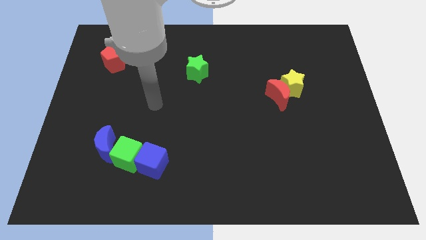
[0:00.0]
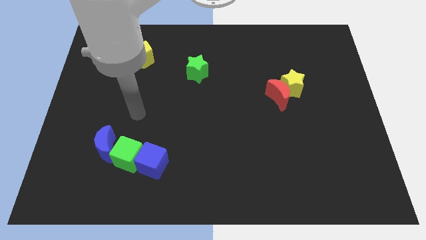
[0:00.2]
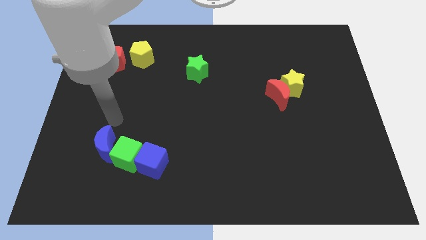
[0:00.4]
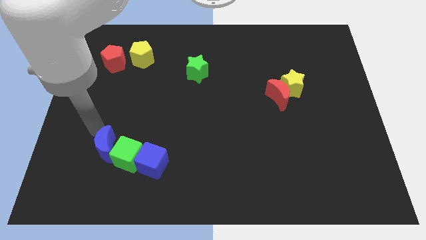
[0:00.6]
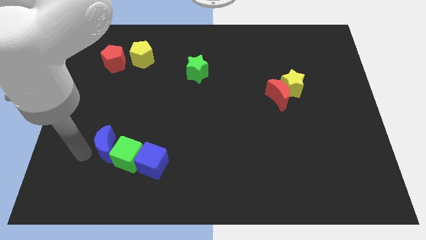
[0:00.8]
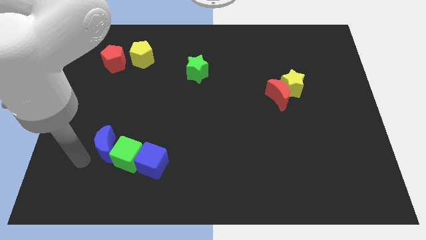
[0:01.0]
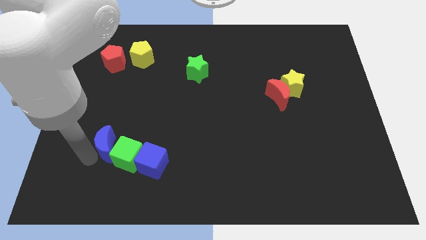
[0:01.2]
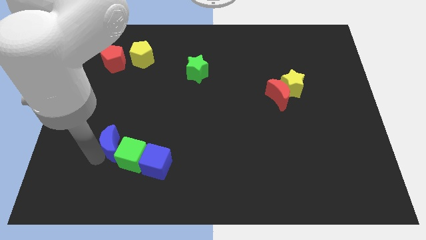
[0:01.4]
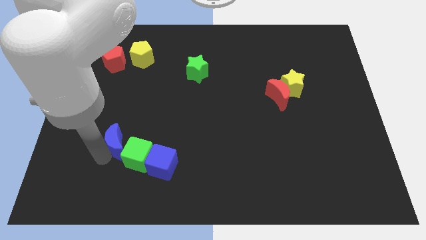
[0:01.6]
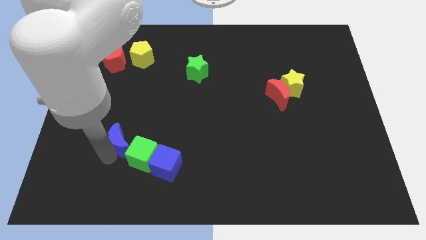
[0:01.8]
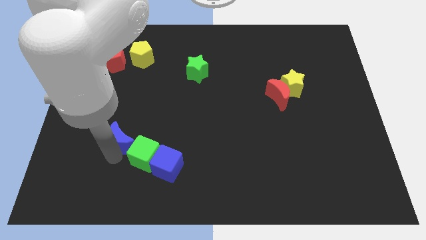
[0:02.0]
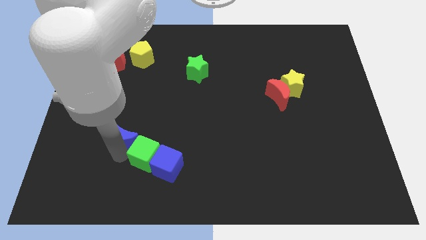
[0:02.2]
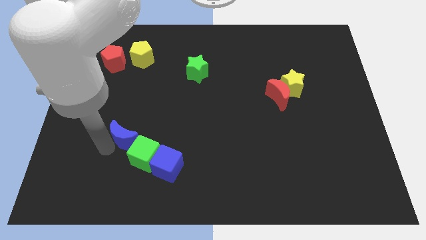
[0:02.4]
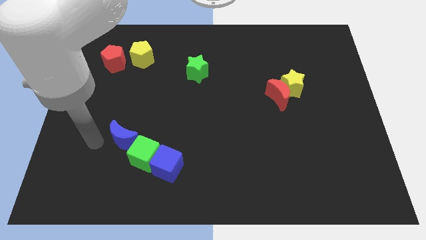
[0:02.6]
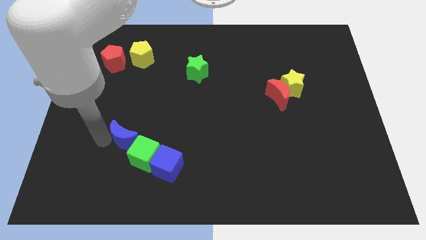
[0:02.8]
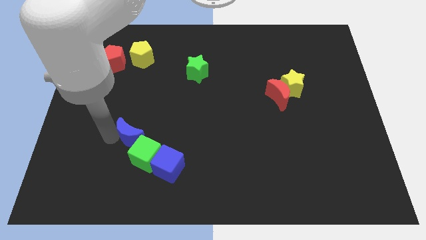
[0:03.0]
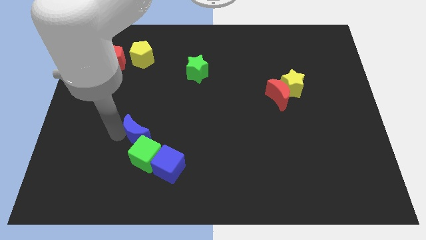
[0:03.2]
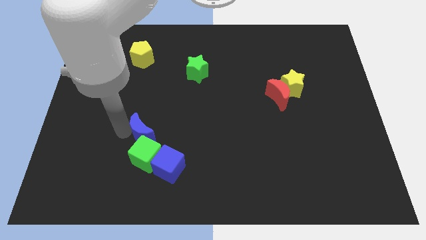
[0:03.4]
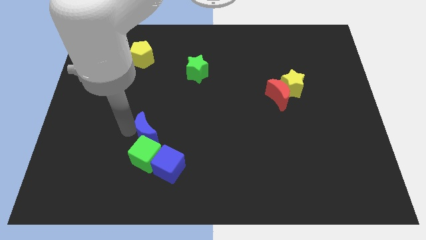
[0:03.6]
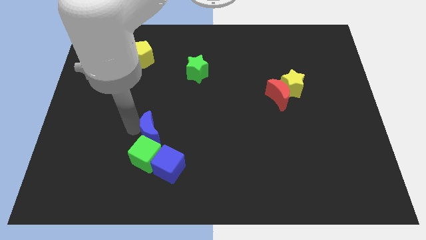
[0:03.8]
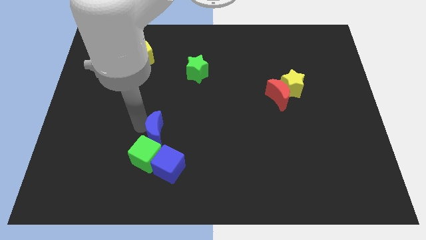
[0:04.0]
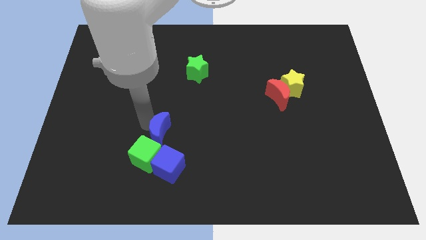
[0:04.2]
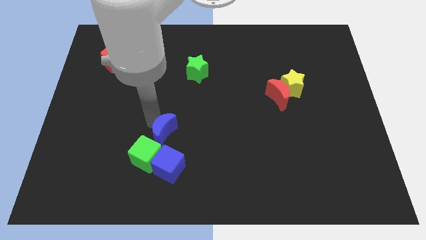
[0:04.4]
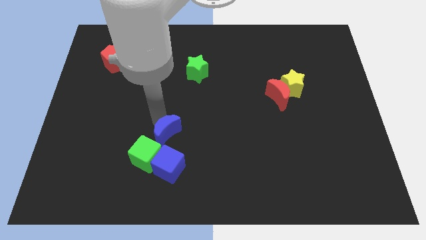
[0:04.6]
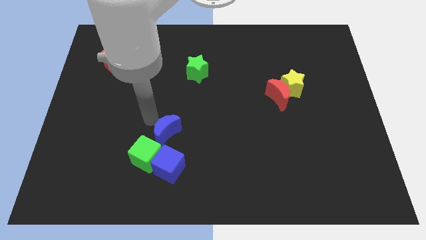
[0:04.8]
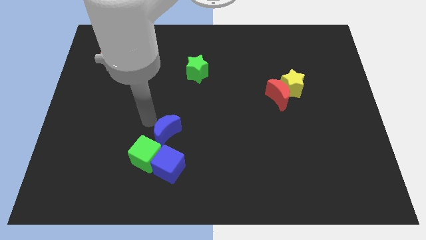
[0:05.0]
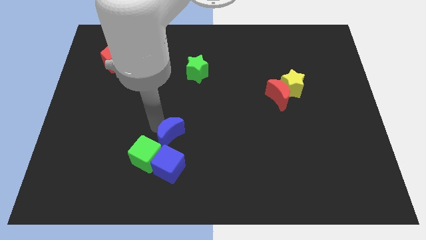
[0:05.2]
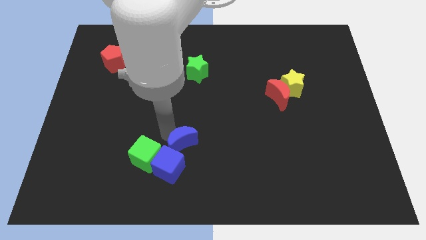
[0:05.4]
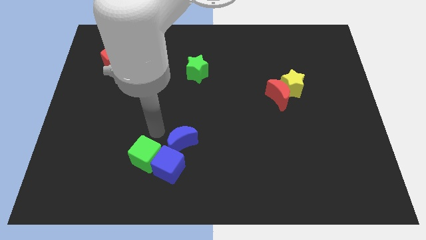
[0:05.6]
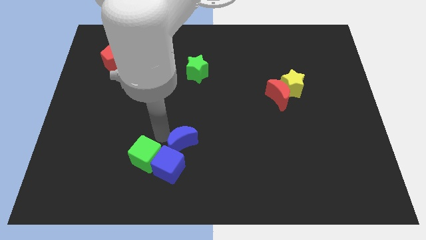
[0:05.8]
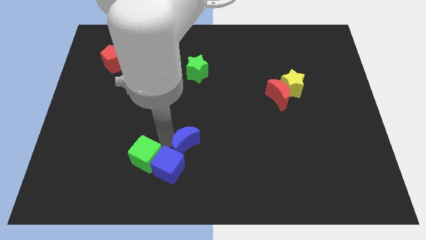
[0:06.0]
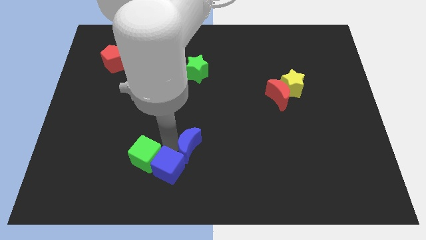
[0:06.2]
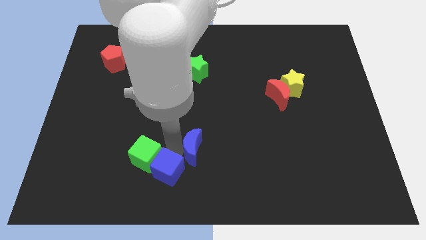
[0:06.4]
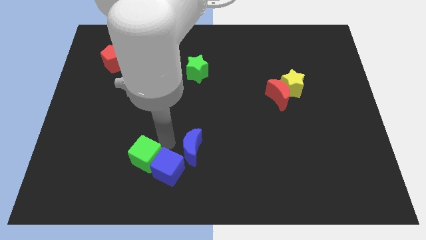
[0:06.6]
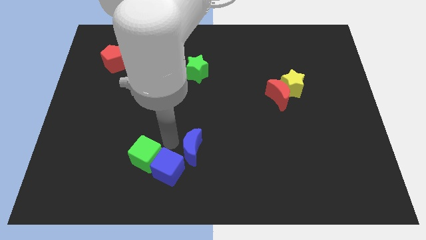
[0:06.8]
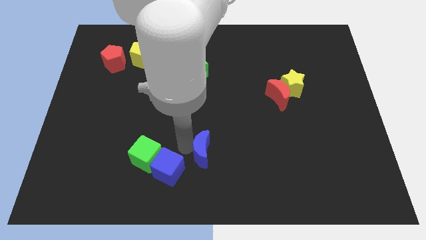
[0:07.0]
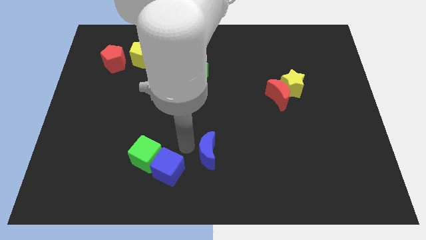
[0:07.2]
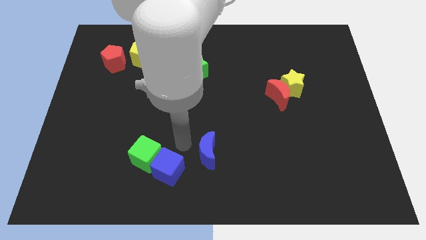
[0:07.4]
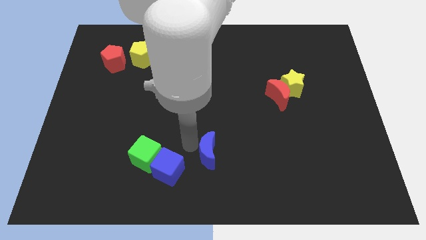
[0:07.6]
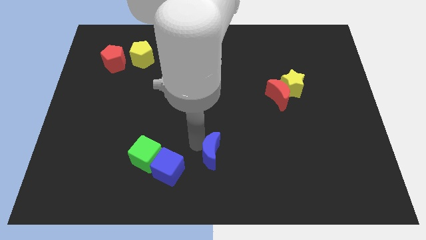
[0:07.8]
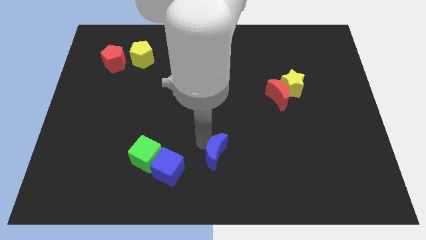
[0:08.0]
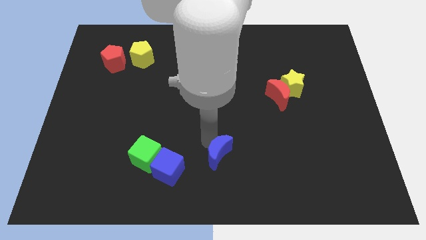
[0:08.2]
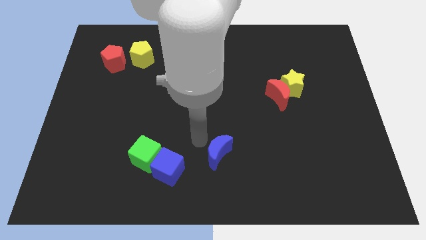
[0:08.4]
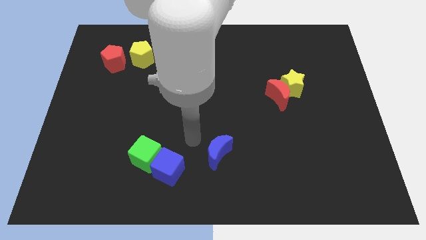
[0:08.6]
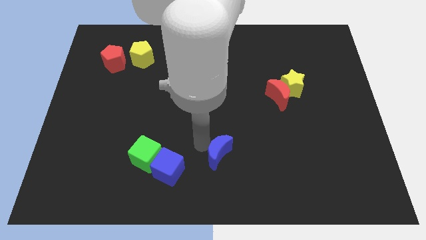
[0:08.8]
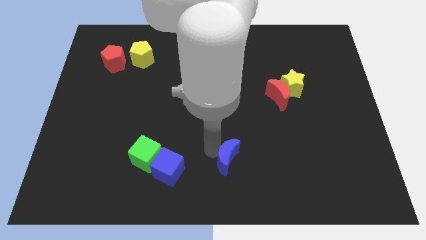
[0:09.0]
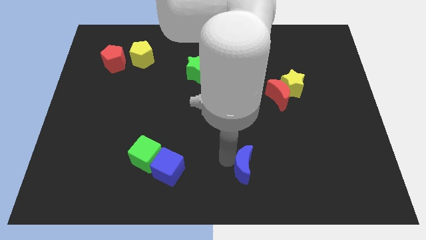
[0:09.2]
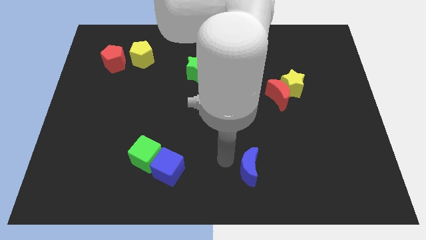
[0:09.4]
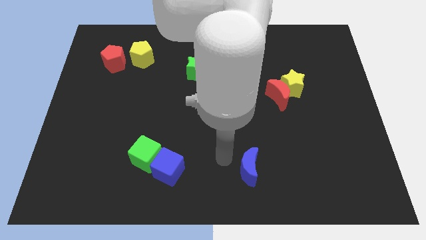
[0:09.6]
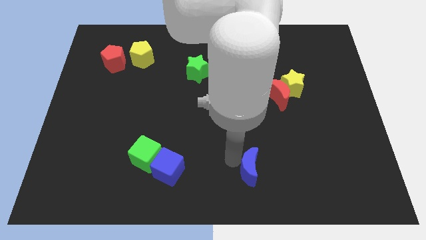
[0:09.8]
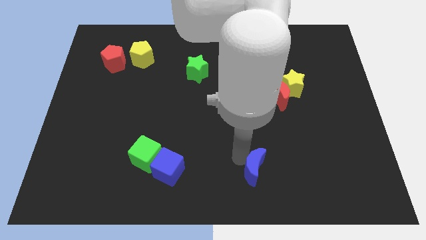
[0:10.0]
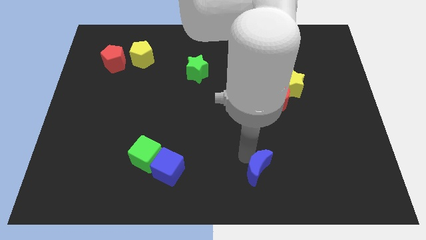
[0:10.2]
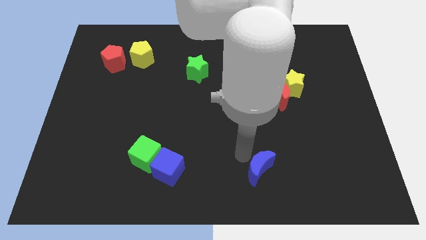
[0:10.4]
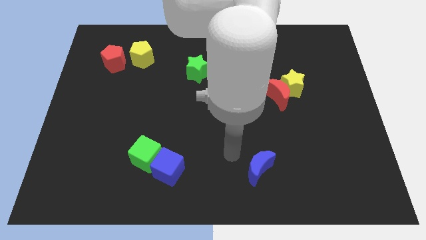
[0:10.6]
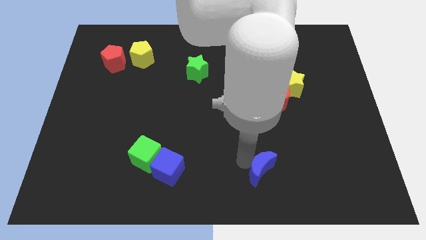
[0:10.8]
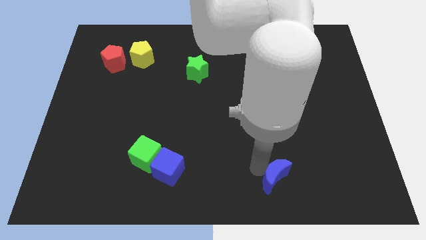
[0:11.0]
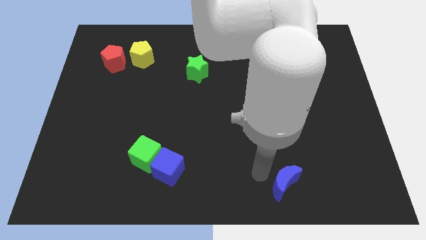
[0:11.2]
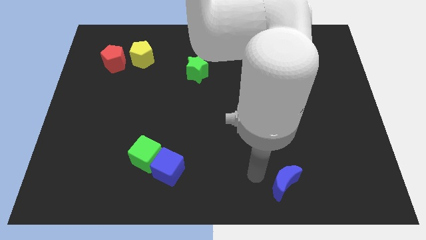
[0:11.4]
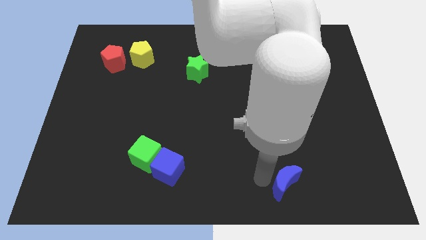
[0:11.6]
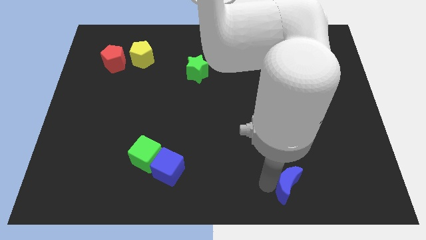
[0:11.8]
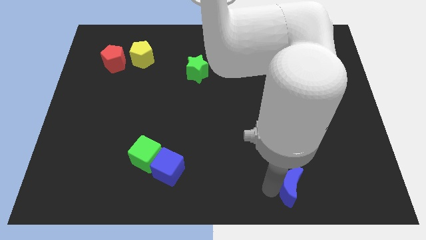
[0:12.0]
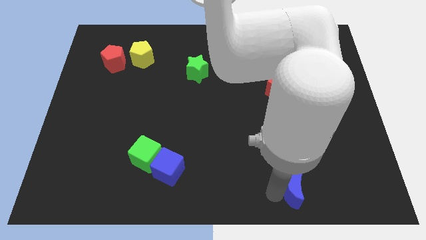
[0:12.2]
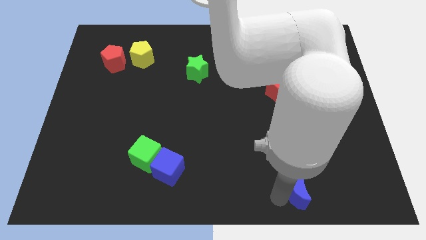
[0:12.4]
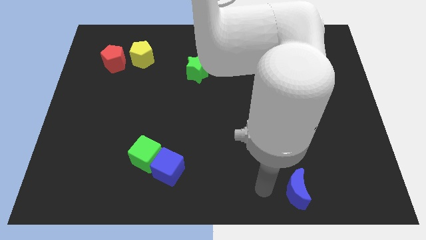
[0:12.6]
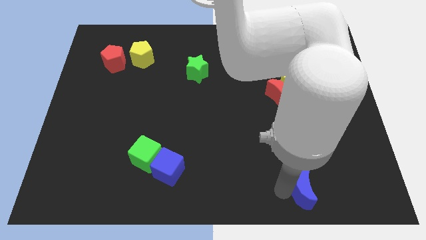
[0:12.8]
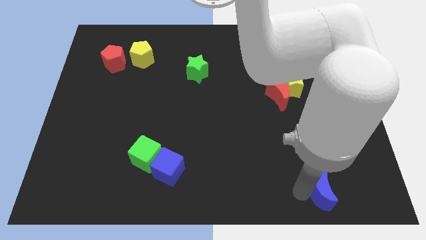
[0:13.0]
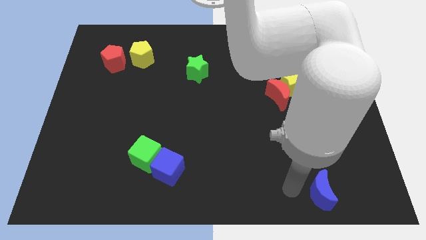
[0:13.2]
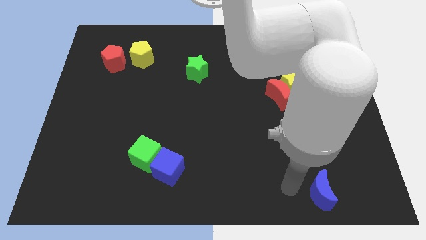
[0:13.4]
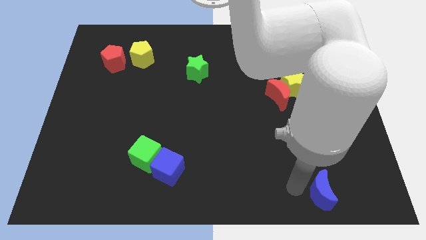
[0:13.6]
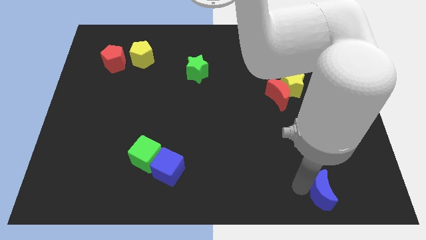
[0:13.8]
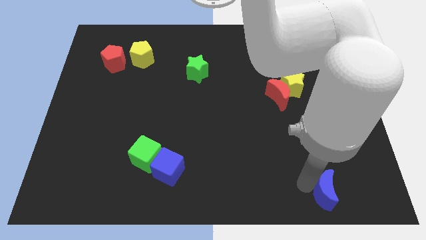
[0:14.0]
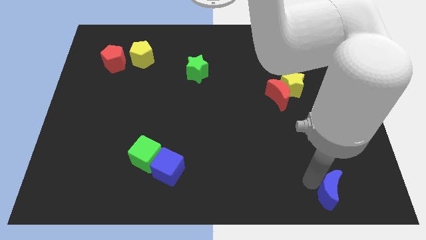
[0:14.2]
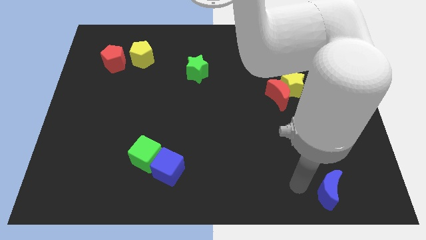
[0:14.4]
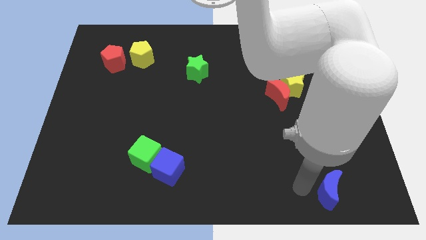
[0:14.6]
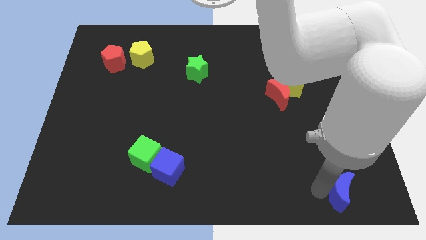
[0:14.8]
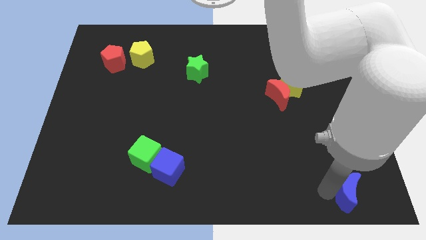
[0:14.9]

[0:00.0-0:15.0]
put the blue moon to the bottom right corner
